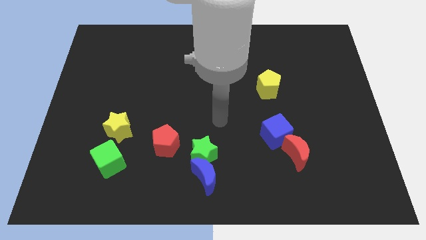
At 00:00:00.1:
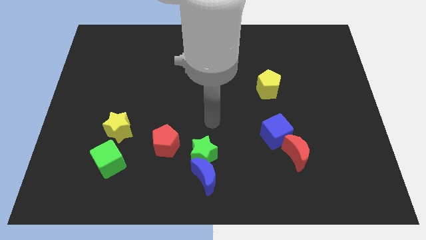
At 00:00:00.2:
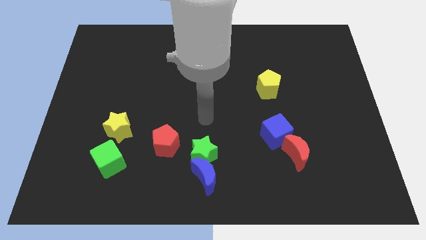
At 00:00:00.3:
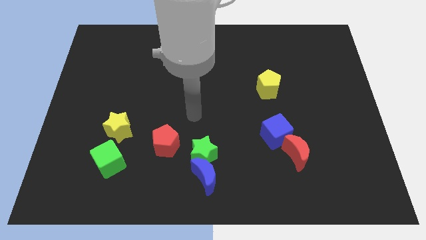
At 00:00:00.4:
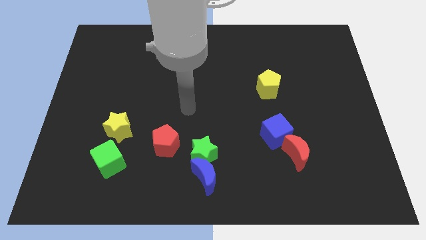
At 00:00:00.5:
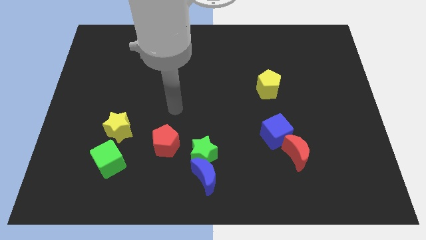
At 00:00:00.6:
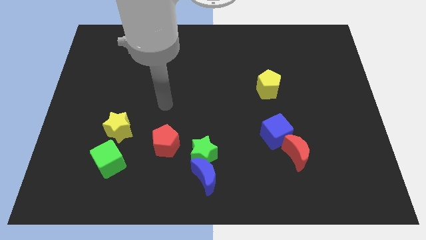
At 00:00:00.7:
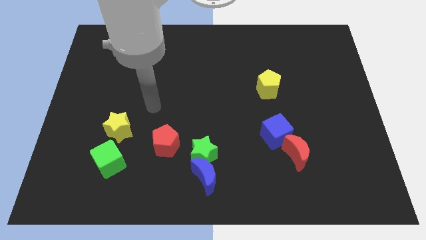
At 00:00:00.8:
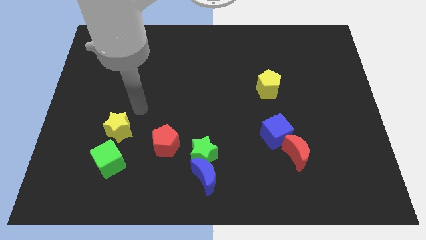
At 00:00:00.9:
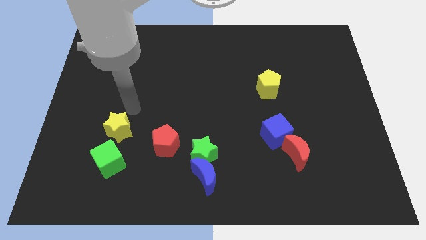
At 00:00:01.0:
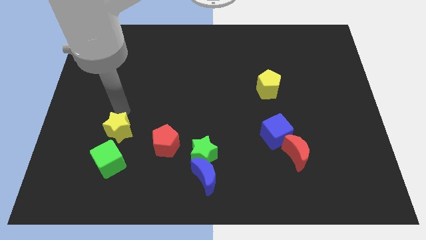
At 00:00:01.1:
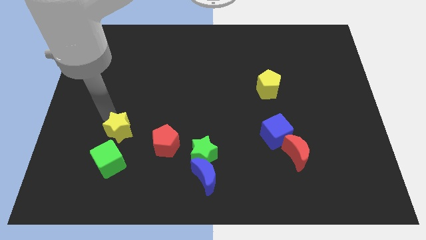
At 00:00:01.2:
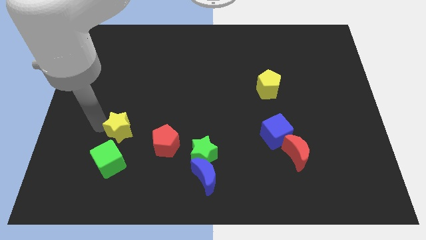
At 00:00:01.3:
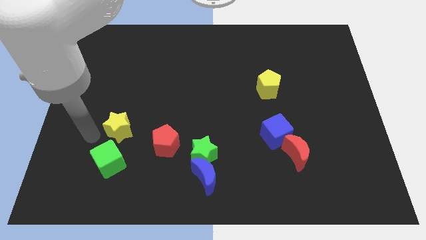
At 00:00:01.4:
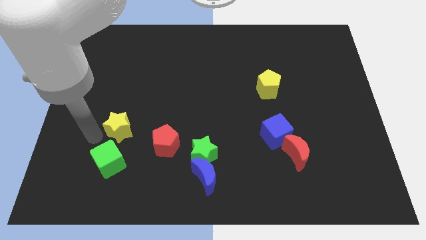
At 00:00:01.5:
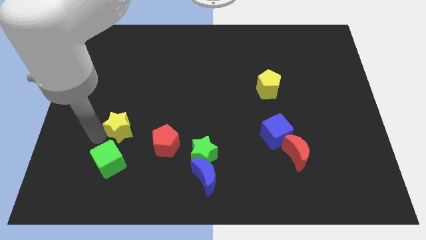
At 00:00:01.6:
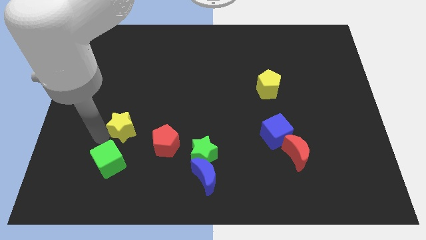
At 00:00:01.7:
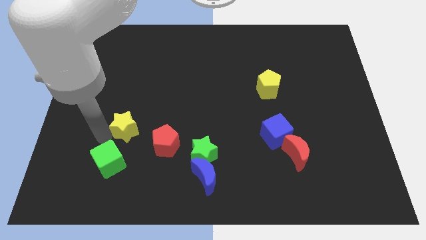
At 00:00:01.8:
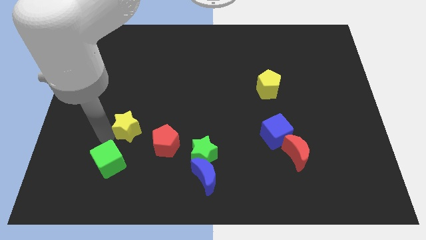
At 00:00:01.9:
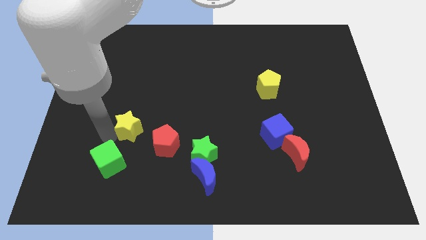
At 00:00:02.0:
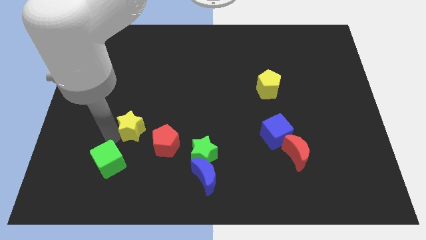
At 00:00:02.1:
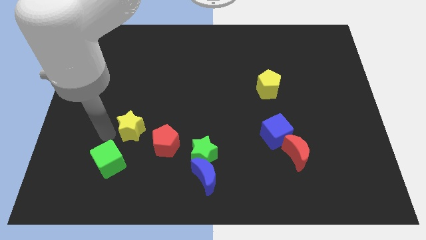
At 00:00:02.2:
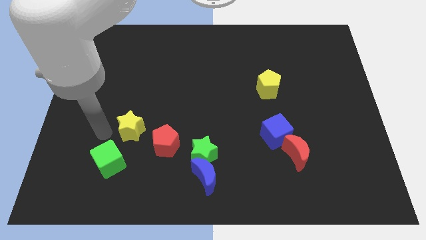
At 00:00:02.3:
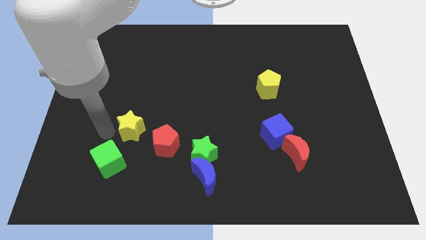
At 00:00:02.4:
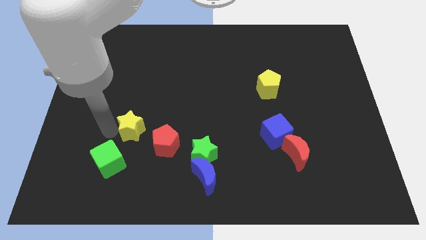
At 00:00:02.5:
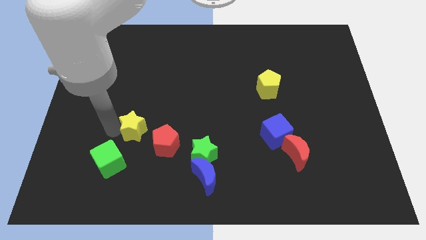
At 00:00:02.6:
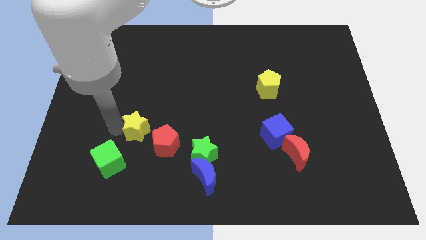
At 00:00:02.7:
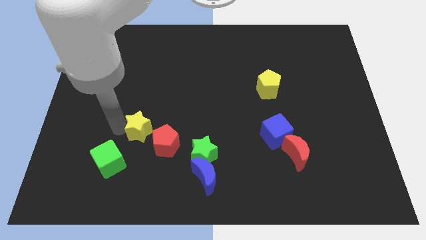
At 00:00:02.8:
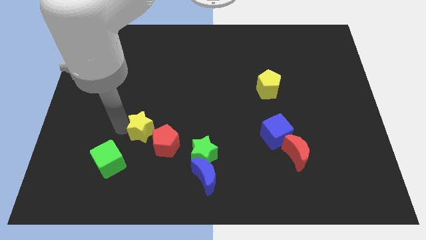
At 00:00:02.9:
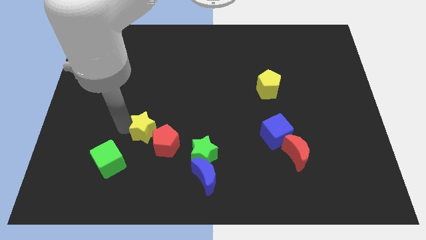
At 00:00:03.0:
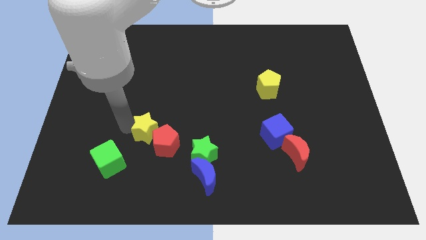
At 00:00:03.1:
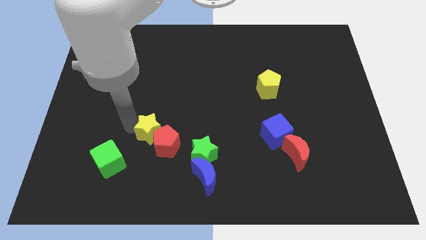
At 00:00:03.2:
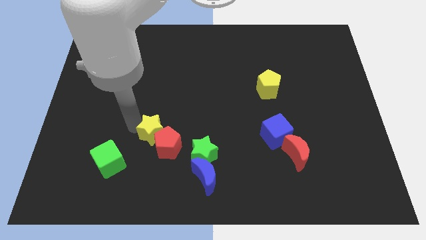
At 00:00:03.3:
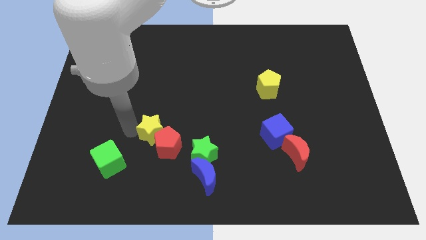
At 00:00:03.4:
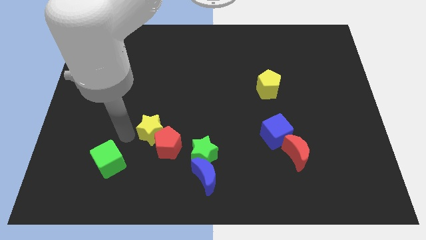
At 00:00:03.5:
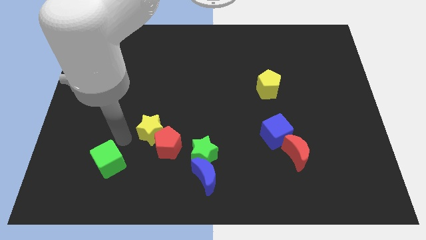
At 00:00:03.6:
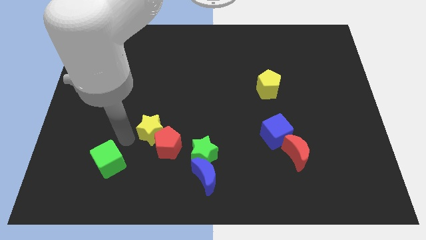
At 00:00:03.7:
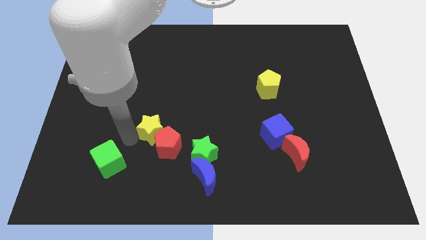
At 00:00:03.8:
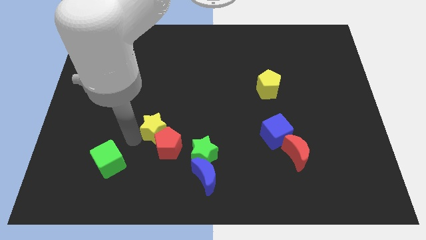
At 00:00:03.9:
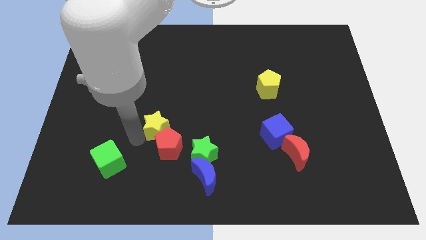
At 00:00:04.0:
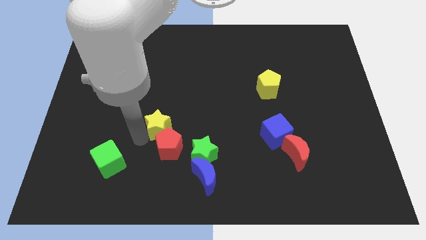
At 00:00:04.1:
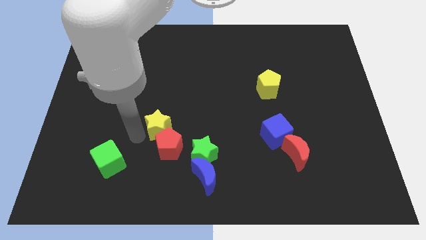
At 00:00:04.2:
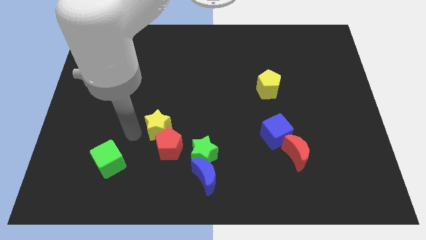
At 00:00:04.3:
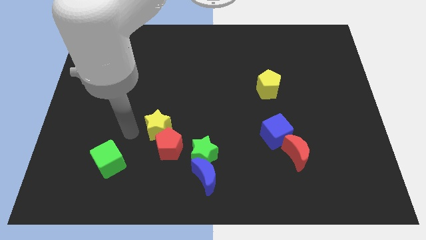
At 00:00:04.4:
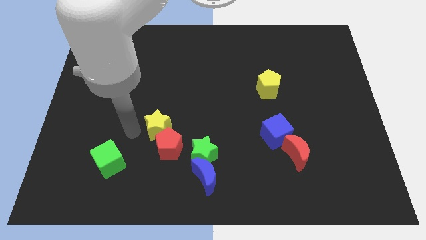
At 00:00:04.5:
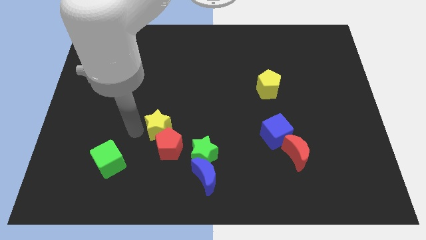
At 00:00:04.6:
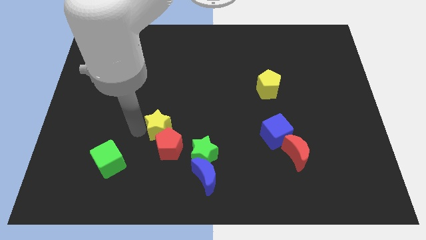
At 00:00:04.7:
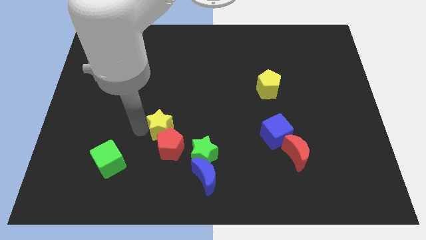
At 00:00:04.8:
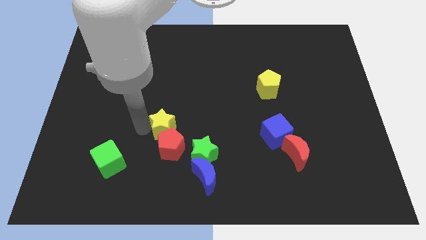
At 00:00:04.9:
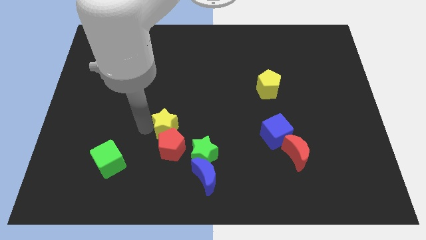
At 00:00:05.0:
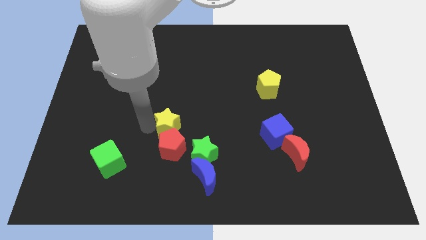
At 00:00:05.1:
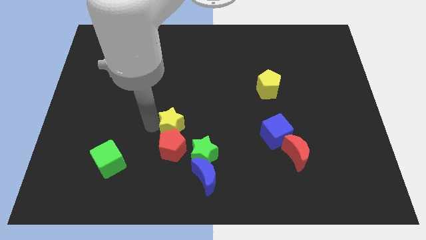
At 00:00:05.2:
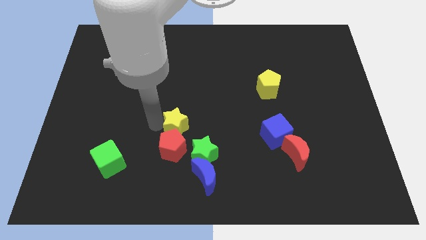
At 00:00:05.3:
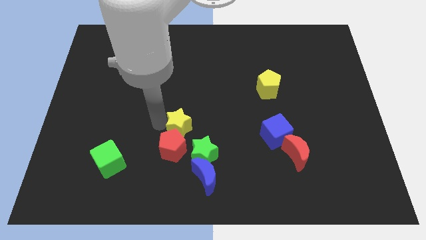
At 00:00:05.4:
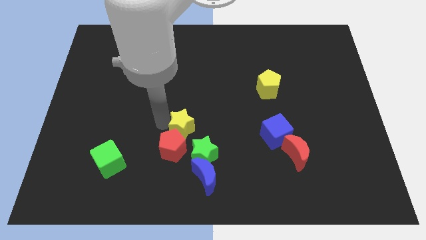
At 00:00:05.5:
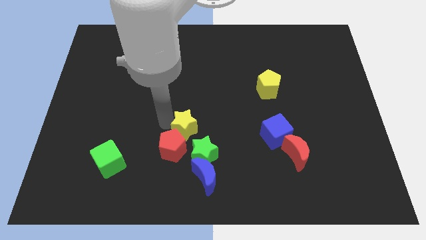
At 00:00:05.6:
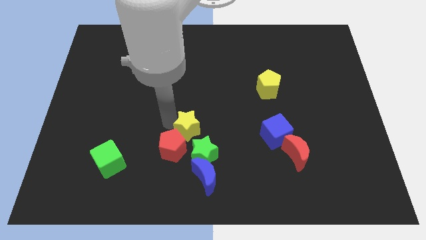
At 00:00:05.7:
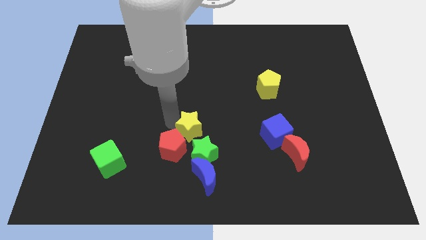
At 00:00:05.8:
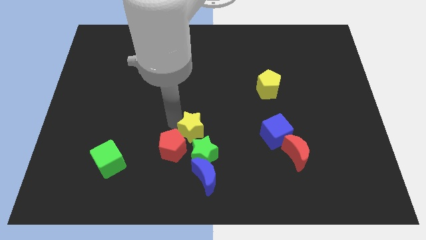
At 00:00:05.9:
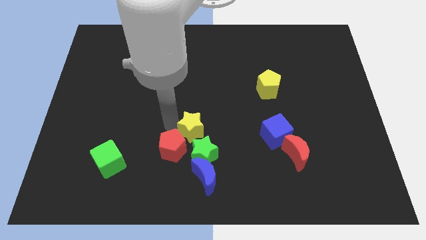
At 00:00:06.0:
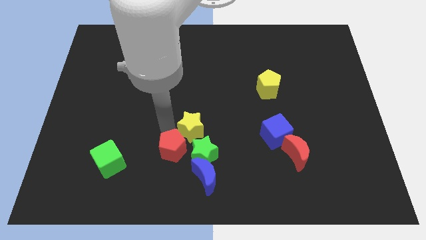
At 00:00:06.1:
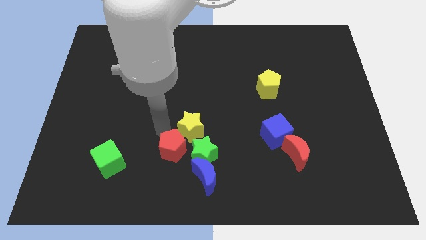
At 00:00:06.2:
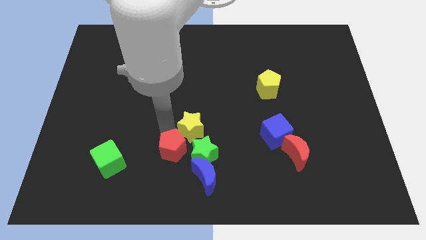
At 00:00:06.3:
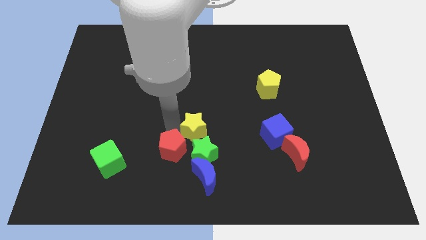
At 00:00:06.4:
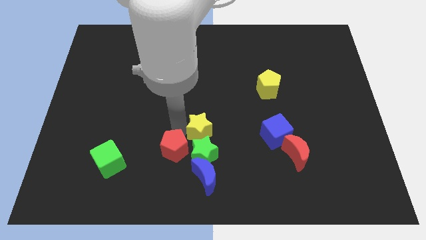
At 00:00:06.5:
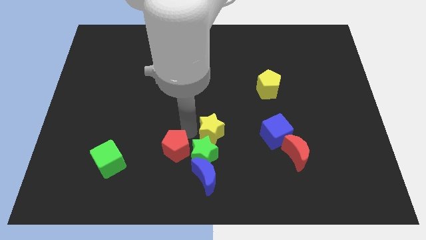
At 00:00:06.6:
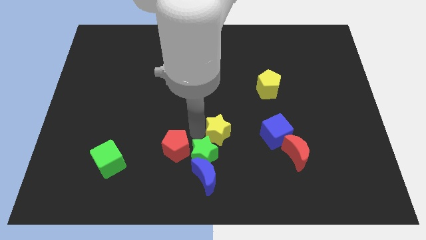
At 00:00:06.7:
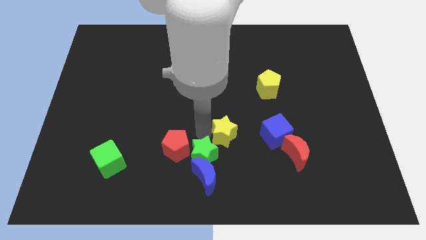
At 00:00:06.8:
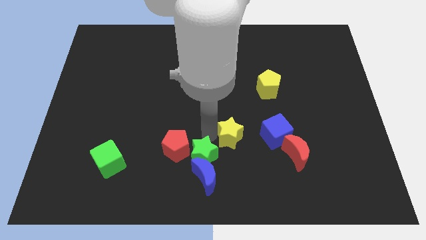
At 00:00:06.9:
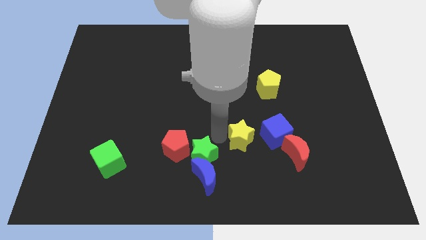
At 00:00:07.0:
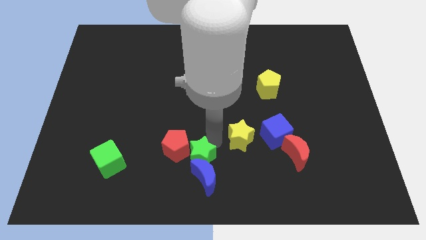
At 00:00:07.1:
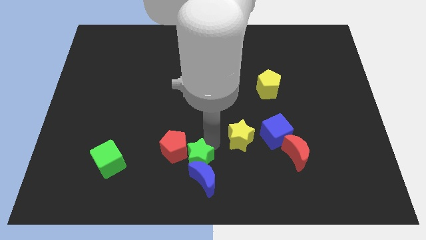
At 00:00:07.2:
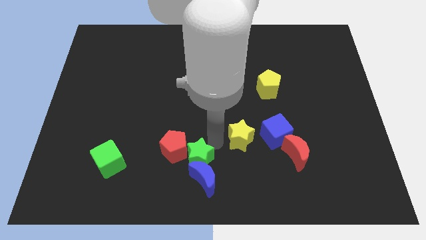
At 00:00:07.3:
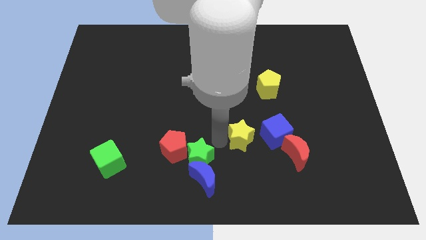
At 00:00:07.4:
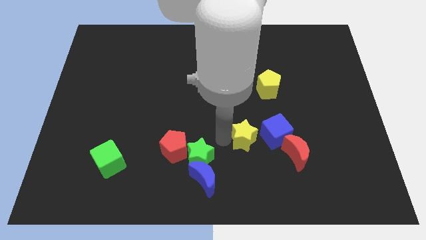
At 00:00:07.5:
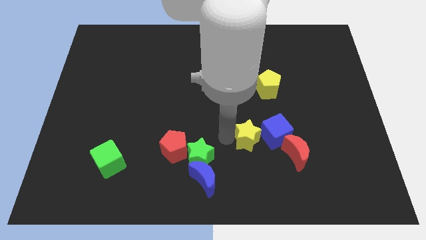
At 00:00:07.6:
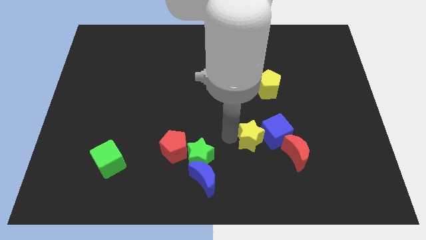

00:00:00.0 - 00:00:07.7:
put the yellow star towards the blue cube
